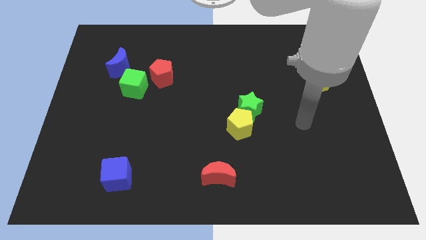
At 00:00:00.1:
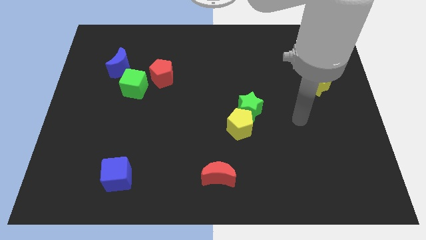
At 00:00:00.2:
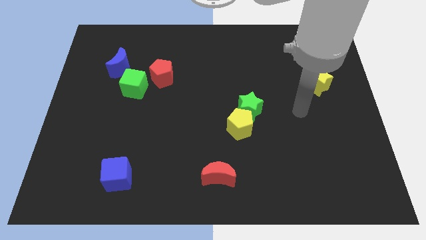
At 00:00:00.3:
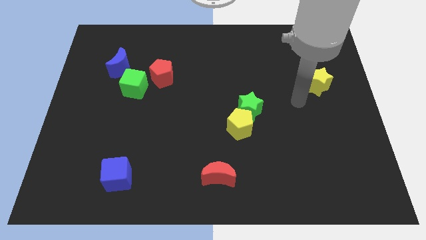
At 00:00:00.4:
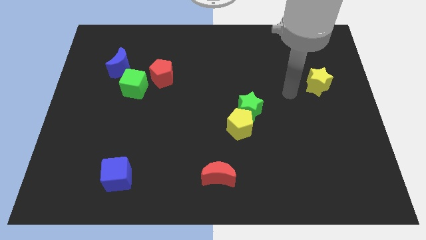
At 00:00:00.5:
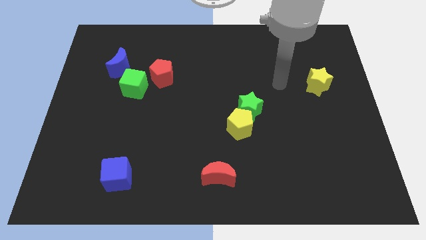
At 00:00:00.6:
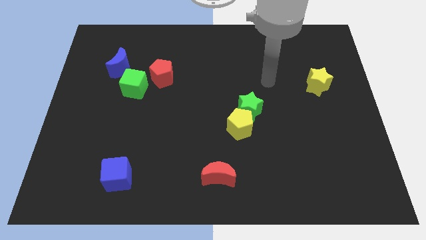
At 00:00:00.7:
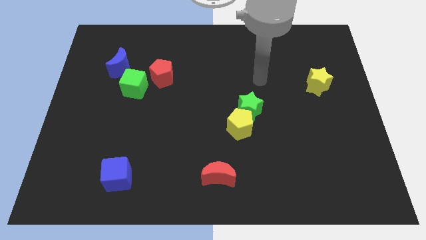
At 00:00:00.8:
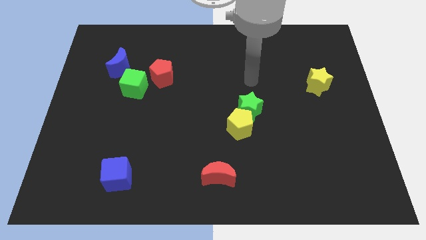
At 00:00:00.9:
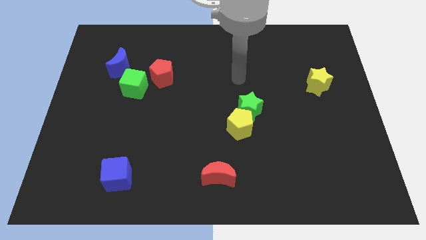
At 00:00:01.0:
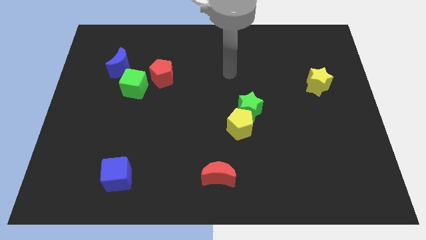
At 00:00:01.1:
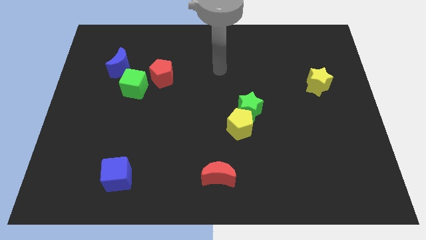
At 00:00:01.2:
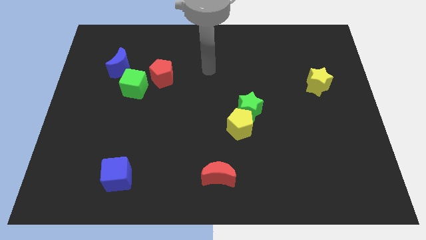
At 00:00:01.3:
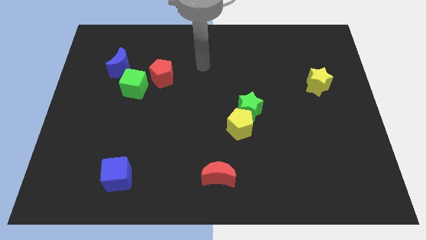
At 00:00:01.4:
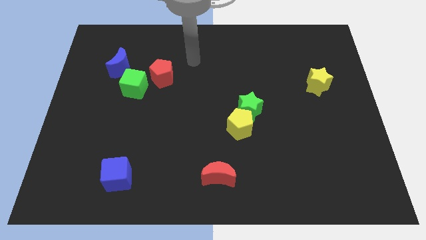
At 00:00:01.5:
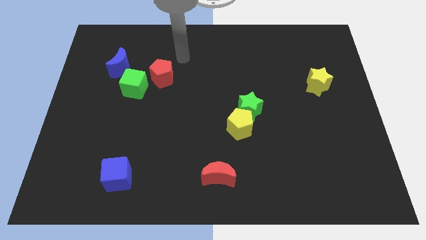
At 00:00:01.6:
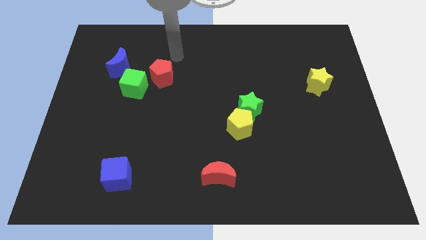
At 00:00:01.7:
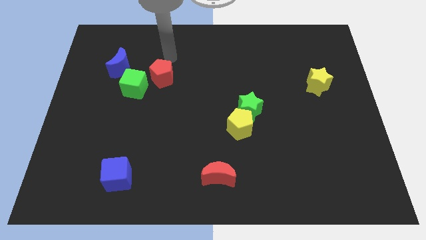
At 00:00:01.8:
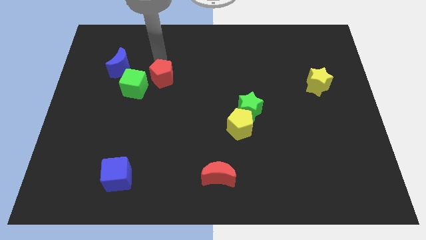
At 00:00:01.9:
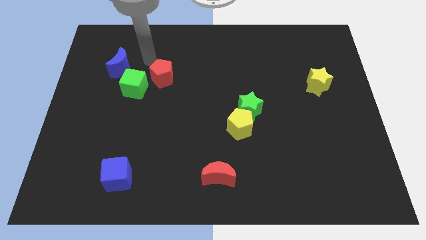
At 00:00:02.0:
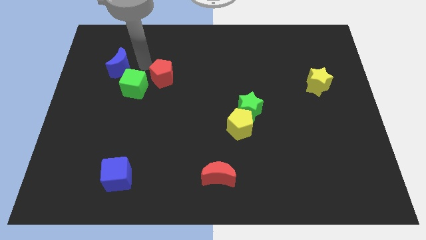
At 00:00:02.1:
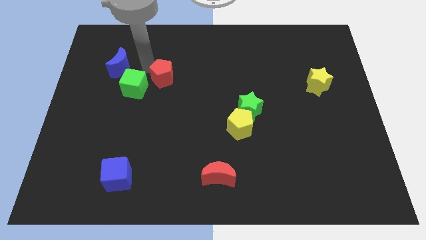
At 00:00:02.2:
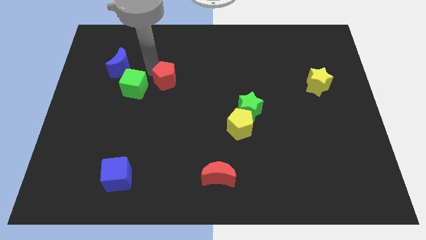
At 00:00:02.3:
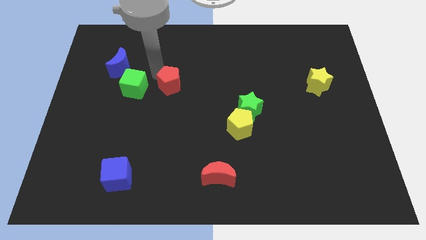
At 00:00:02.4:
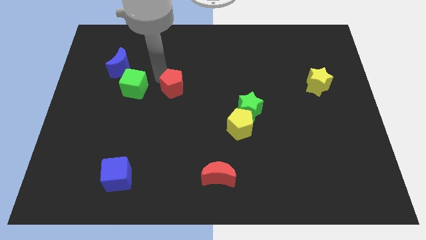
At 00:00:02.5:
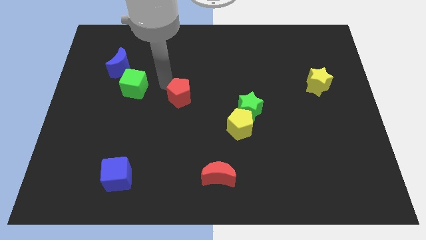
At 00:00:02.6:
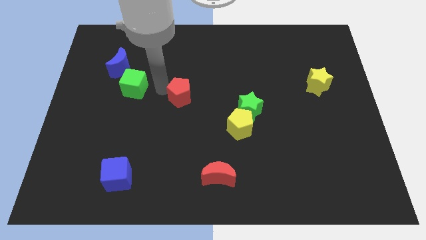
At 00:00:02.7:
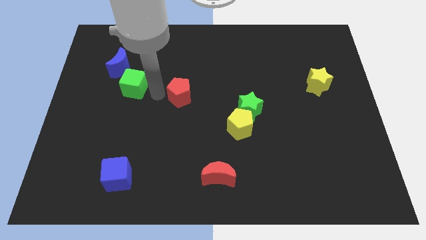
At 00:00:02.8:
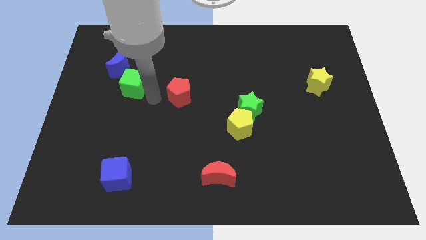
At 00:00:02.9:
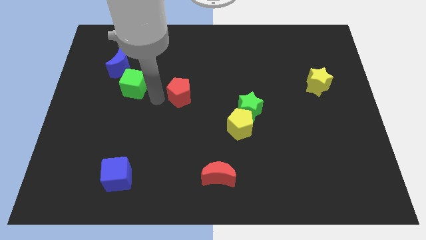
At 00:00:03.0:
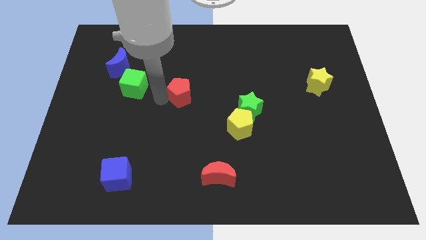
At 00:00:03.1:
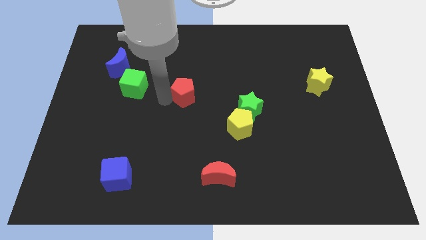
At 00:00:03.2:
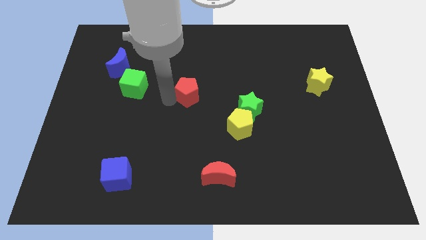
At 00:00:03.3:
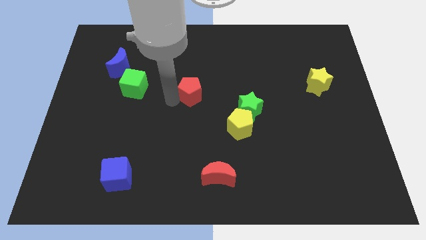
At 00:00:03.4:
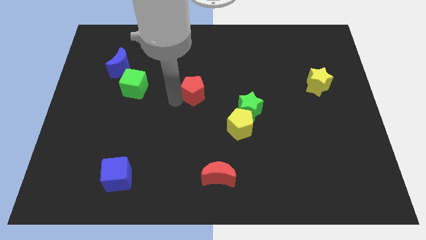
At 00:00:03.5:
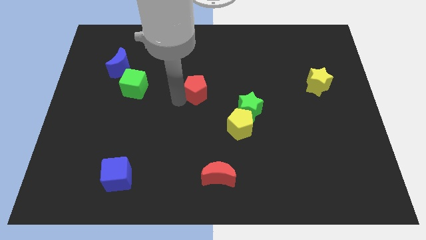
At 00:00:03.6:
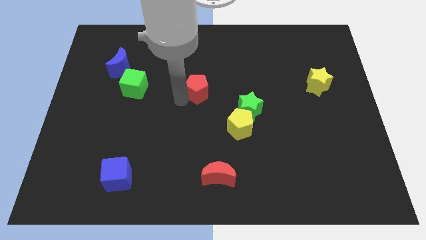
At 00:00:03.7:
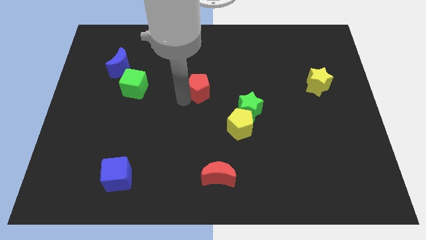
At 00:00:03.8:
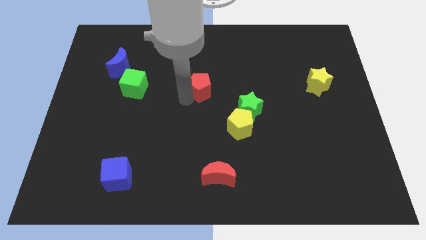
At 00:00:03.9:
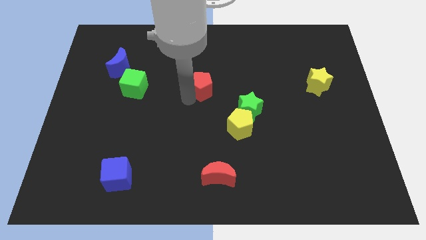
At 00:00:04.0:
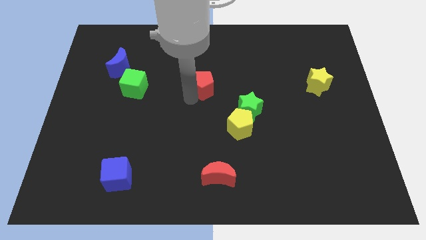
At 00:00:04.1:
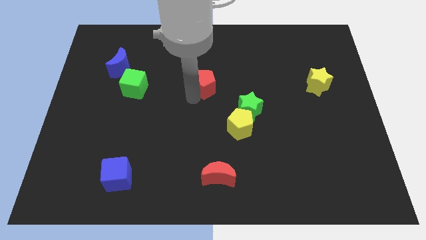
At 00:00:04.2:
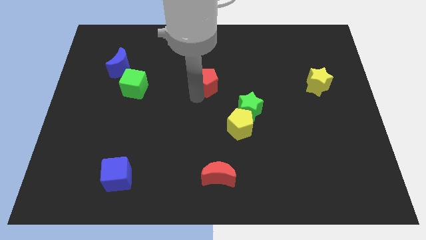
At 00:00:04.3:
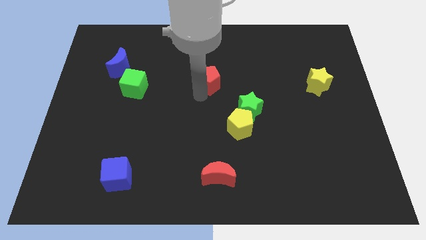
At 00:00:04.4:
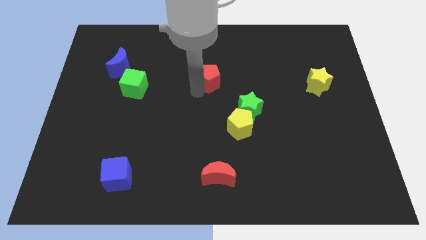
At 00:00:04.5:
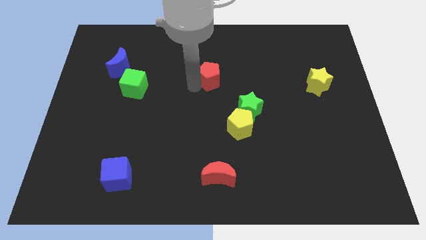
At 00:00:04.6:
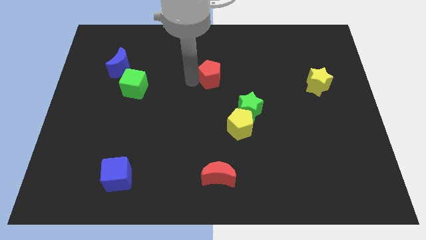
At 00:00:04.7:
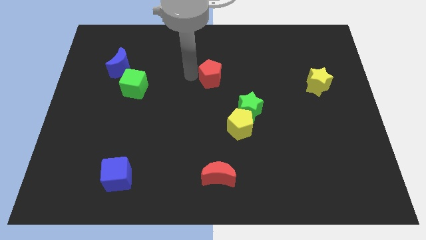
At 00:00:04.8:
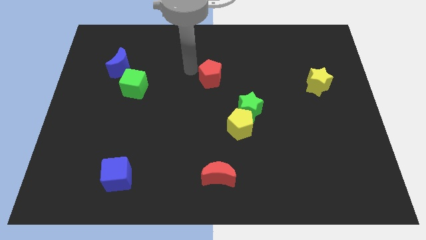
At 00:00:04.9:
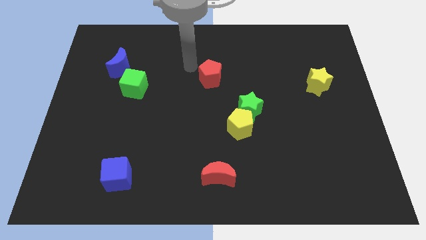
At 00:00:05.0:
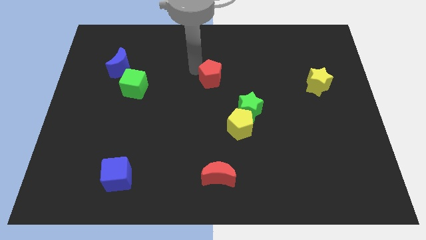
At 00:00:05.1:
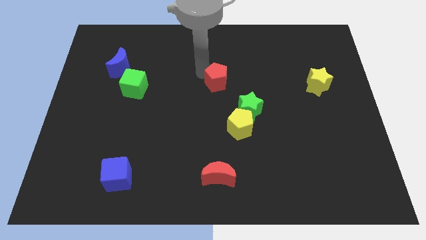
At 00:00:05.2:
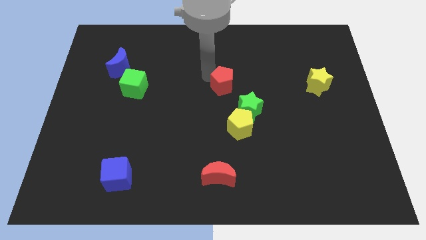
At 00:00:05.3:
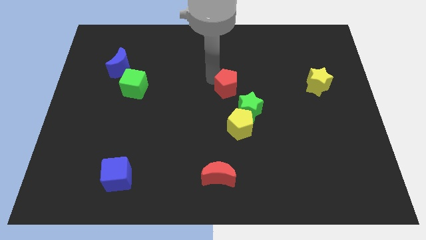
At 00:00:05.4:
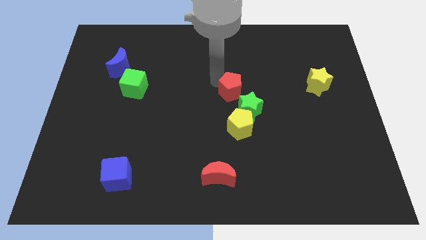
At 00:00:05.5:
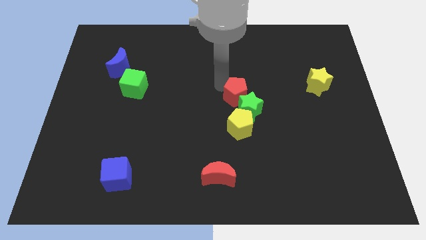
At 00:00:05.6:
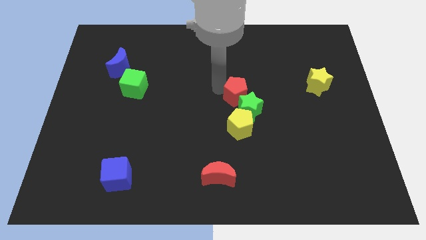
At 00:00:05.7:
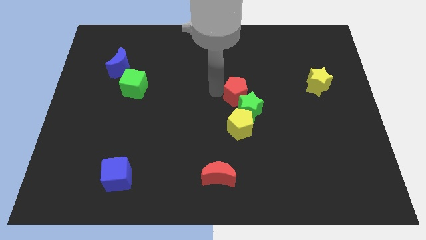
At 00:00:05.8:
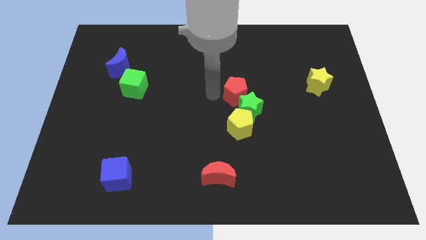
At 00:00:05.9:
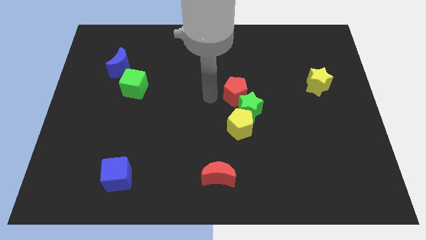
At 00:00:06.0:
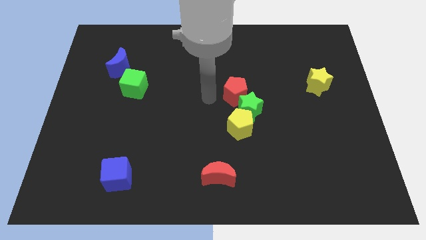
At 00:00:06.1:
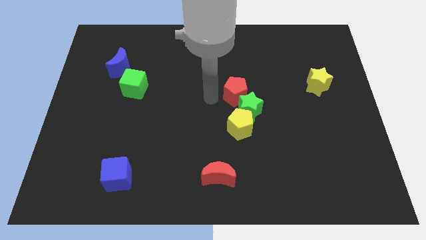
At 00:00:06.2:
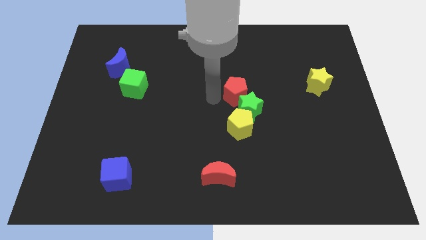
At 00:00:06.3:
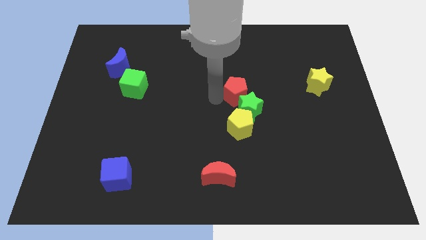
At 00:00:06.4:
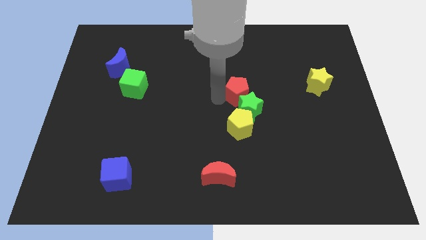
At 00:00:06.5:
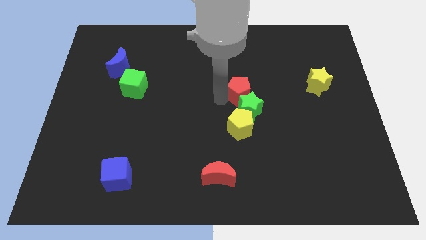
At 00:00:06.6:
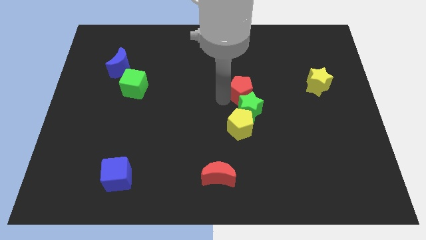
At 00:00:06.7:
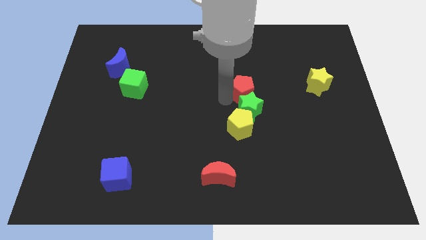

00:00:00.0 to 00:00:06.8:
move the red pentagon to the top right side of the green star

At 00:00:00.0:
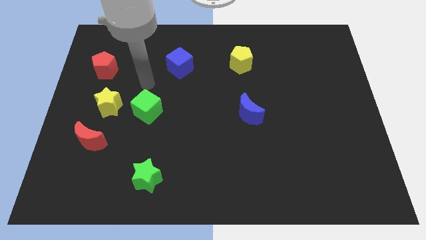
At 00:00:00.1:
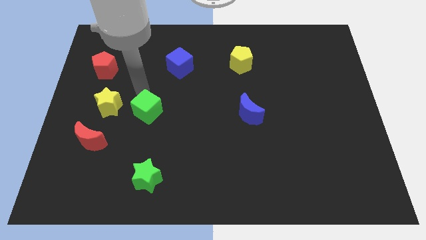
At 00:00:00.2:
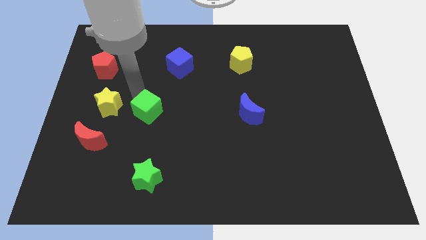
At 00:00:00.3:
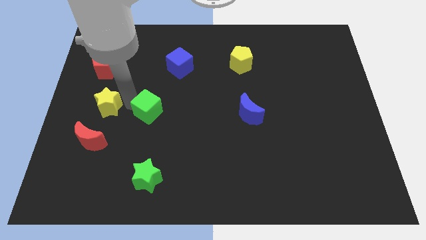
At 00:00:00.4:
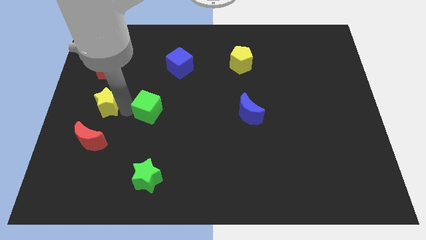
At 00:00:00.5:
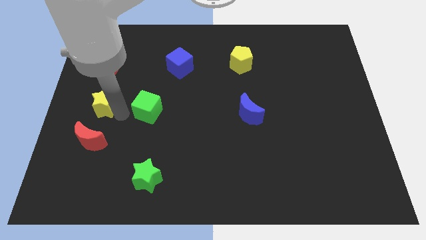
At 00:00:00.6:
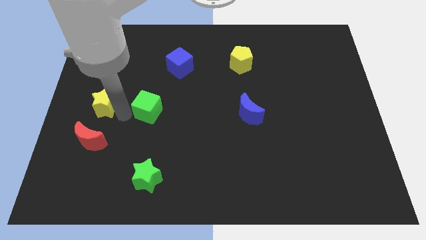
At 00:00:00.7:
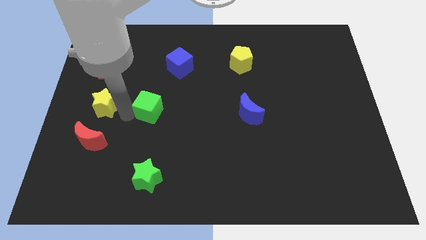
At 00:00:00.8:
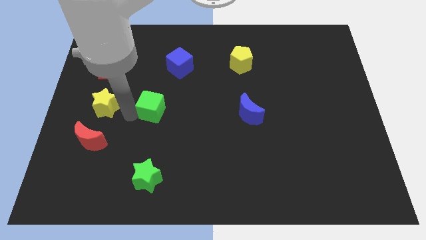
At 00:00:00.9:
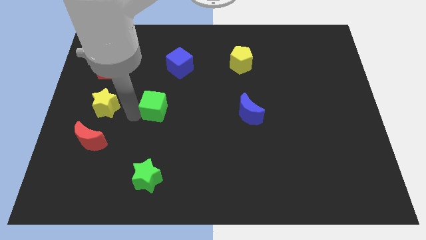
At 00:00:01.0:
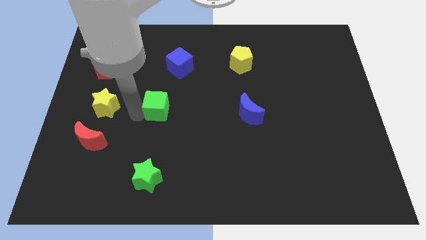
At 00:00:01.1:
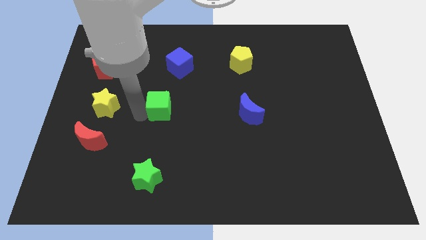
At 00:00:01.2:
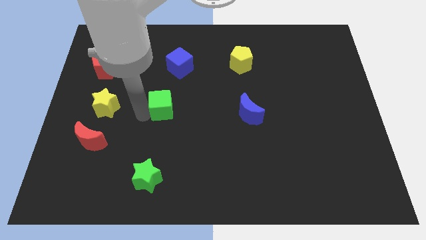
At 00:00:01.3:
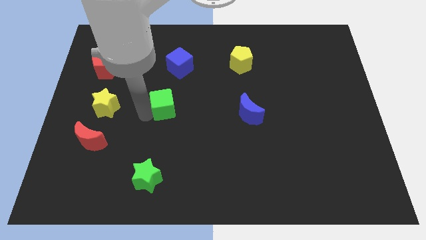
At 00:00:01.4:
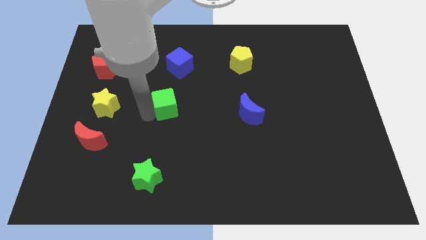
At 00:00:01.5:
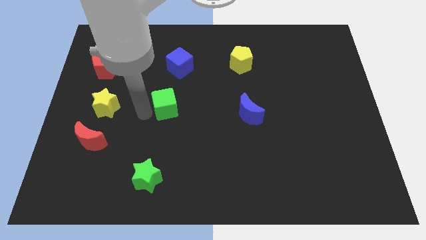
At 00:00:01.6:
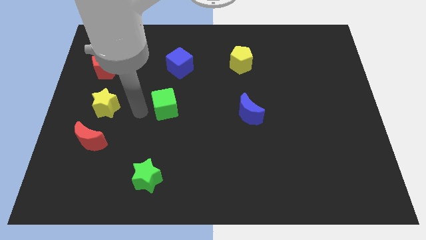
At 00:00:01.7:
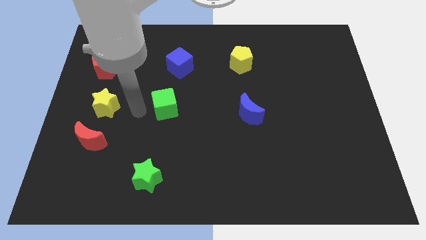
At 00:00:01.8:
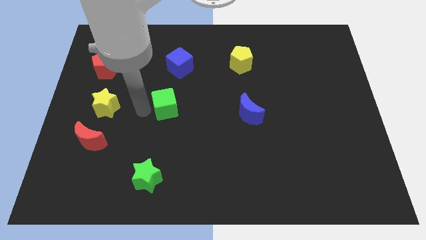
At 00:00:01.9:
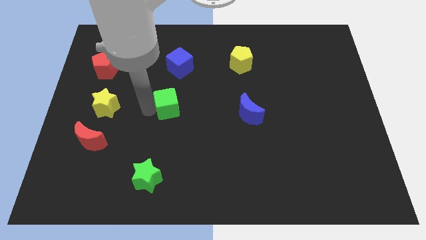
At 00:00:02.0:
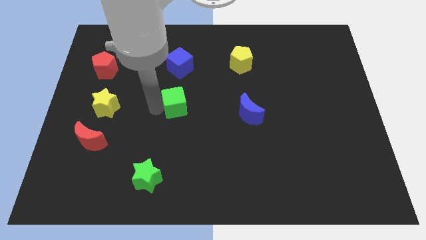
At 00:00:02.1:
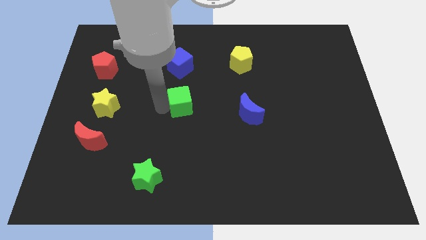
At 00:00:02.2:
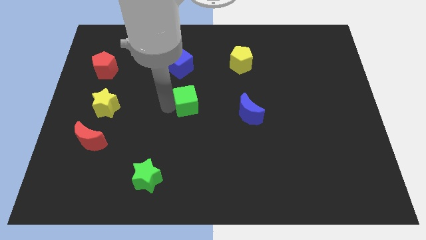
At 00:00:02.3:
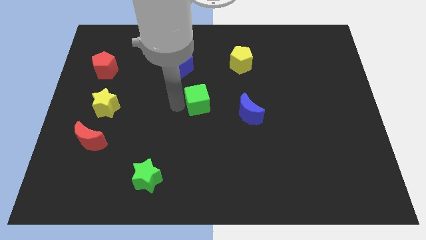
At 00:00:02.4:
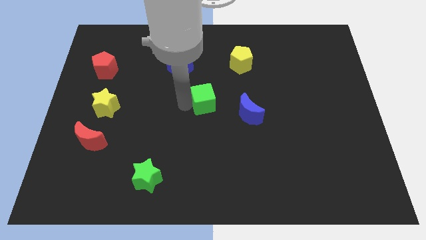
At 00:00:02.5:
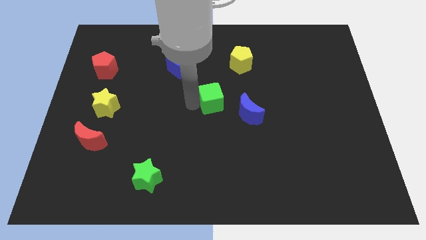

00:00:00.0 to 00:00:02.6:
move the green cube to the top left side of the blue moon
